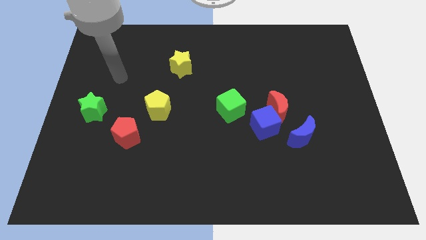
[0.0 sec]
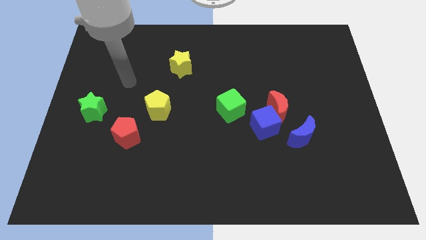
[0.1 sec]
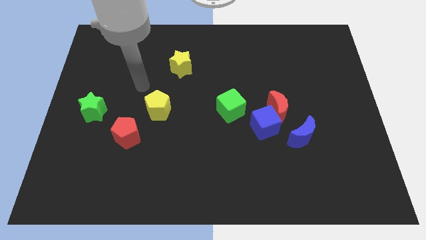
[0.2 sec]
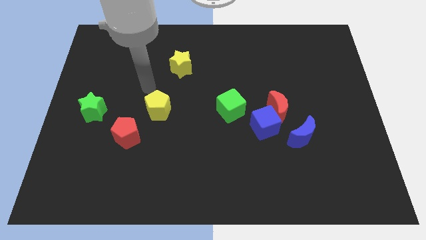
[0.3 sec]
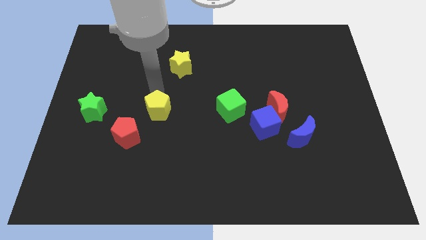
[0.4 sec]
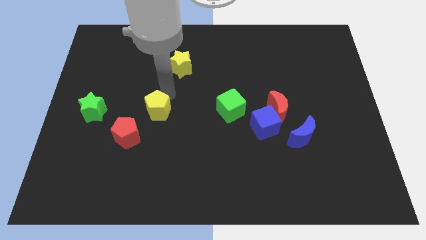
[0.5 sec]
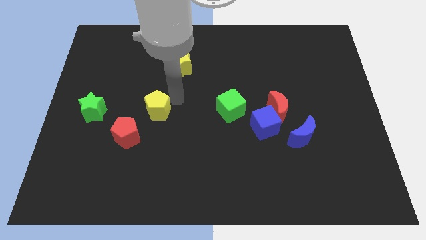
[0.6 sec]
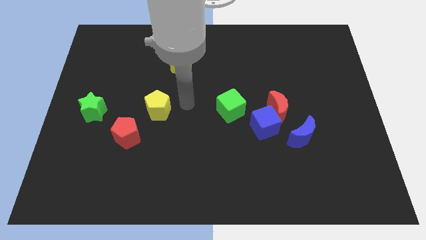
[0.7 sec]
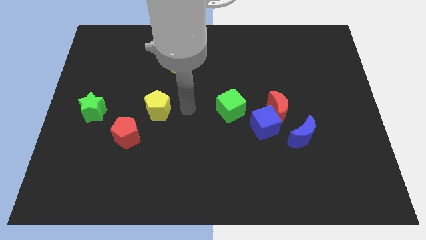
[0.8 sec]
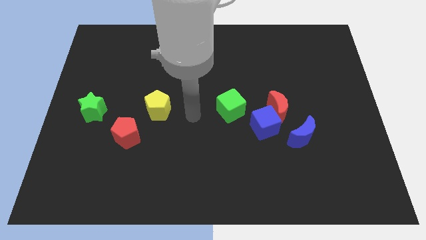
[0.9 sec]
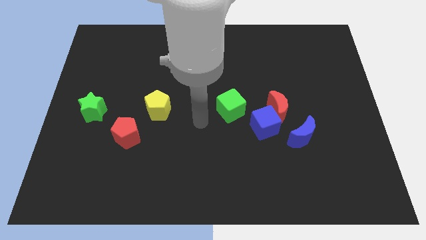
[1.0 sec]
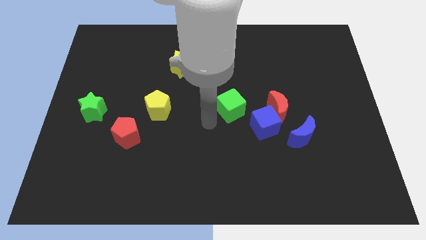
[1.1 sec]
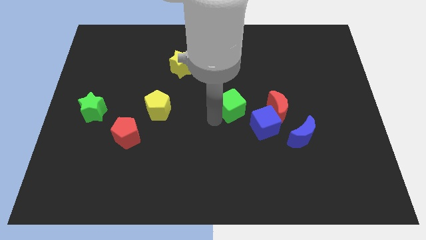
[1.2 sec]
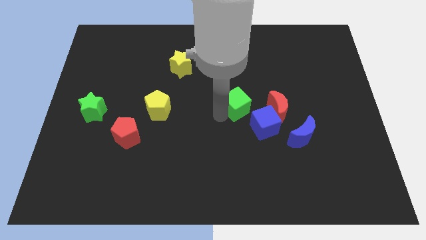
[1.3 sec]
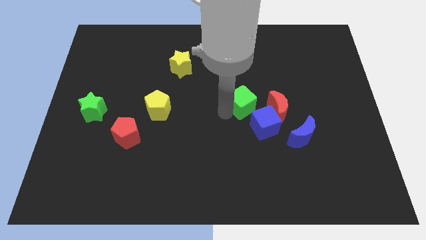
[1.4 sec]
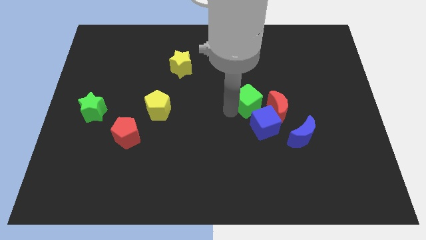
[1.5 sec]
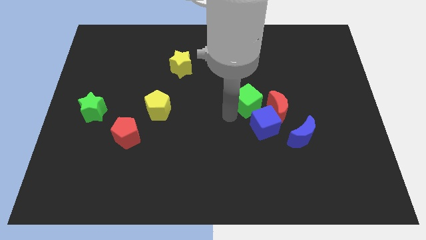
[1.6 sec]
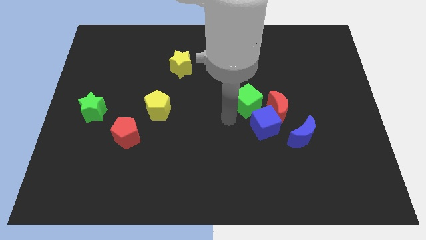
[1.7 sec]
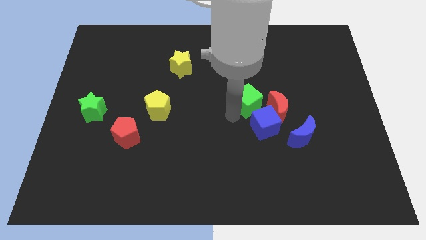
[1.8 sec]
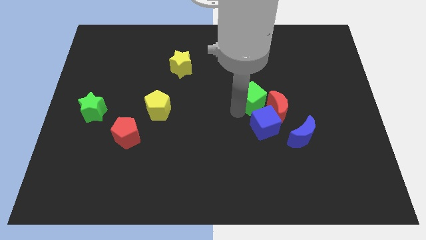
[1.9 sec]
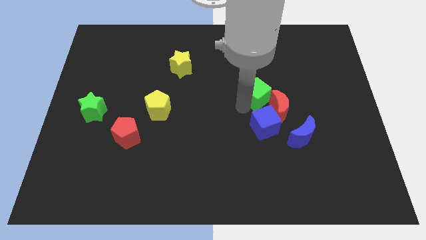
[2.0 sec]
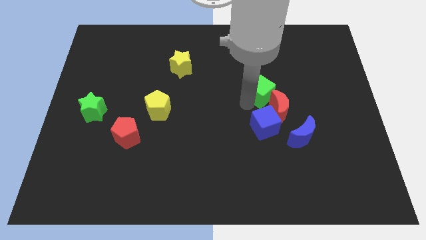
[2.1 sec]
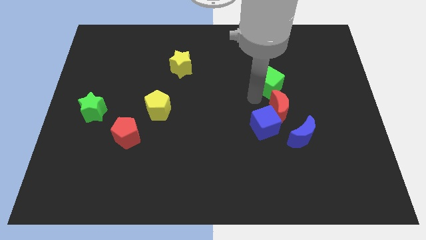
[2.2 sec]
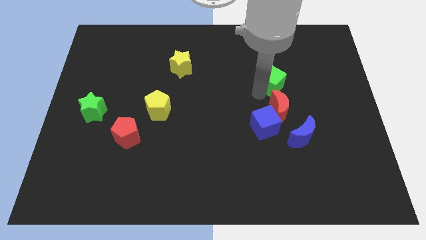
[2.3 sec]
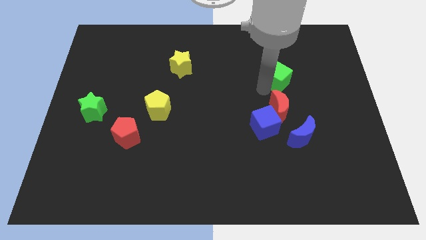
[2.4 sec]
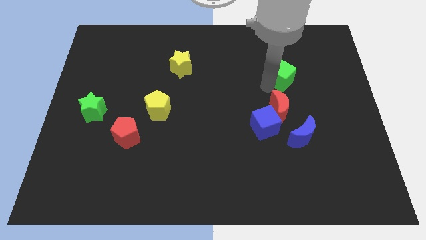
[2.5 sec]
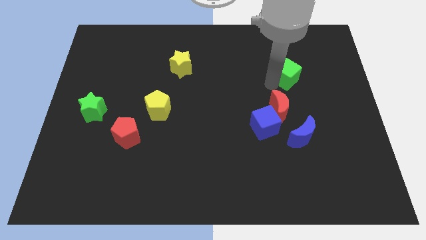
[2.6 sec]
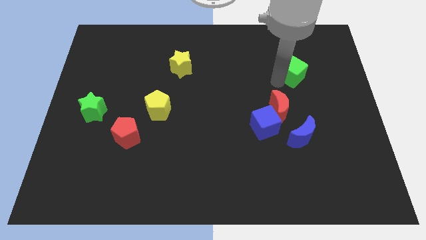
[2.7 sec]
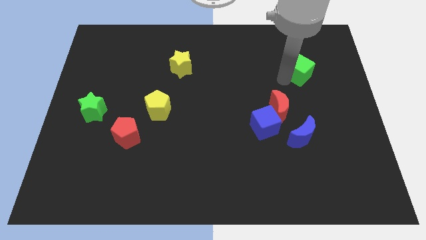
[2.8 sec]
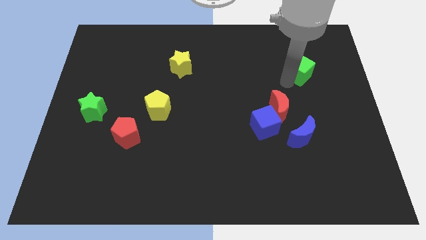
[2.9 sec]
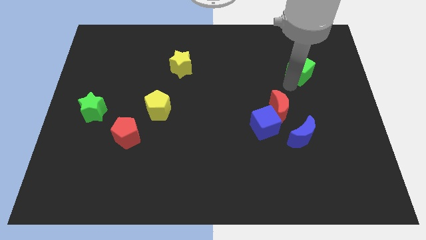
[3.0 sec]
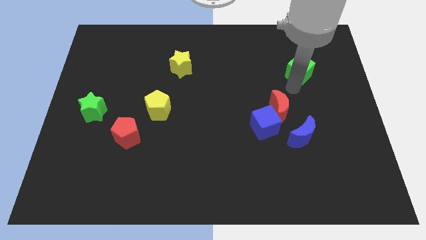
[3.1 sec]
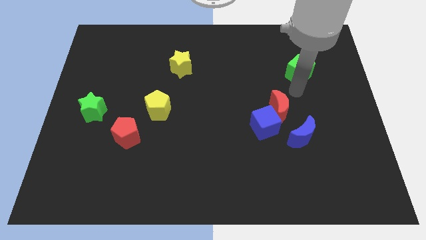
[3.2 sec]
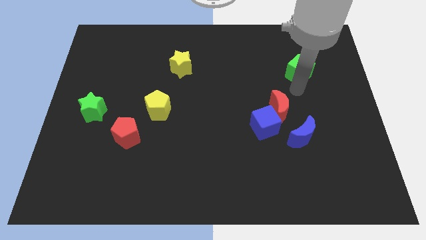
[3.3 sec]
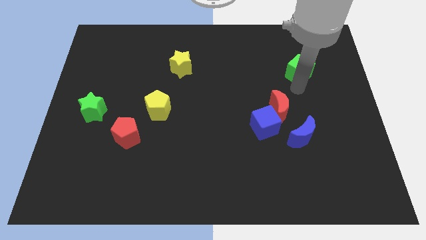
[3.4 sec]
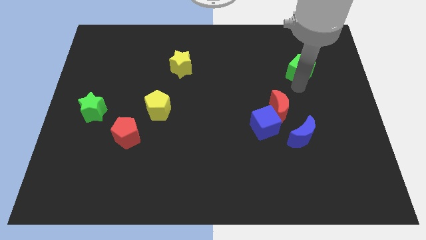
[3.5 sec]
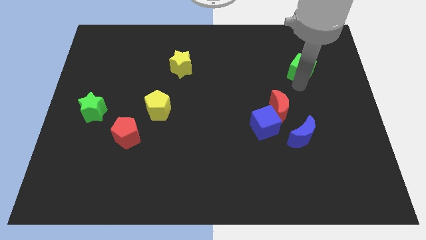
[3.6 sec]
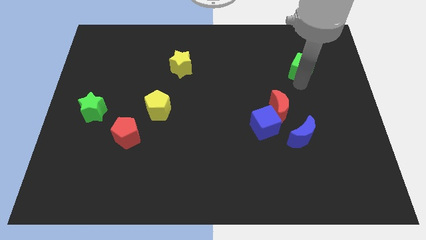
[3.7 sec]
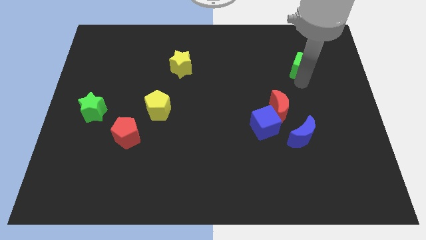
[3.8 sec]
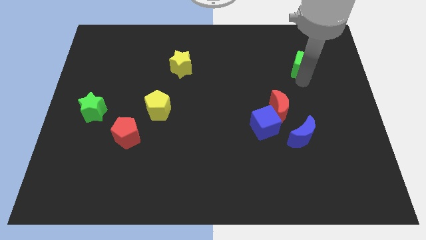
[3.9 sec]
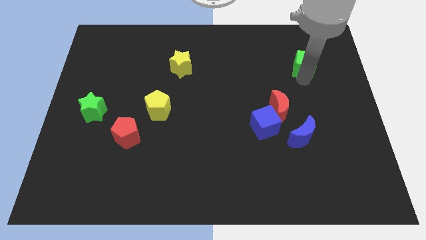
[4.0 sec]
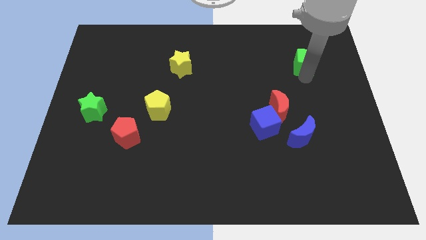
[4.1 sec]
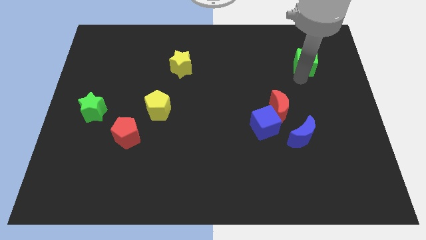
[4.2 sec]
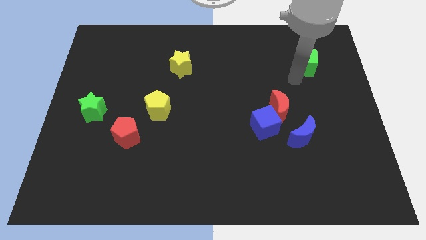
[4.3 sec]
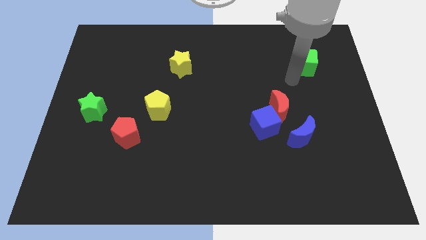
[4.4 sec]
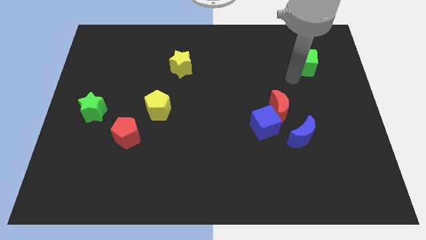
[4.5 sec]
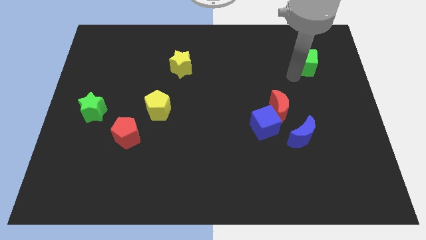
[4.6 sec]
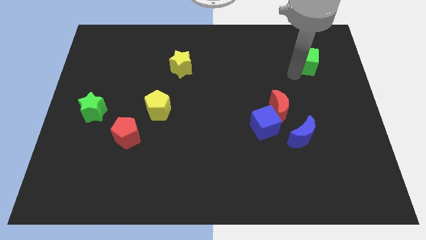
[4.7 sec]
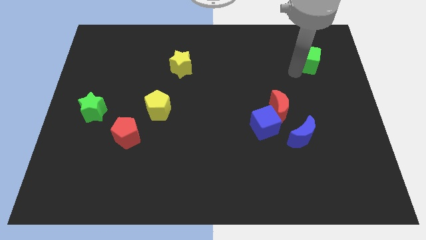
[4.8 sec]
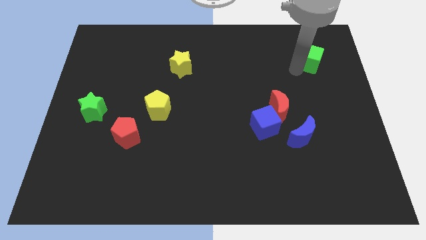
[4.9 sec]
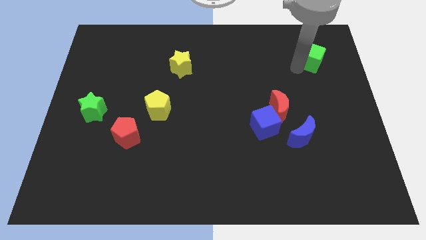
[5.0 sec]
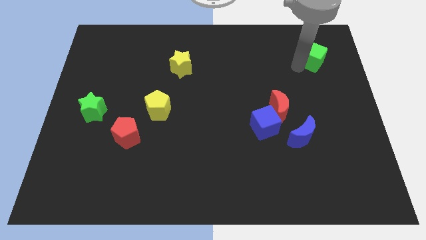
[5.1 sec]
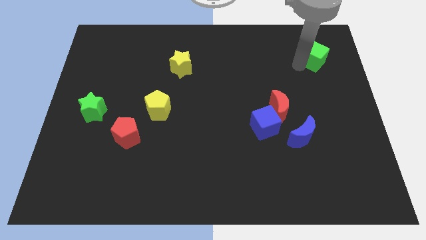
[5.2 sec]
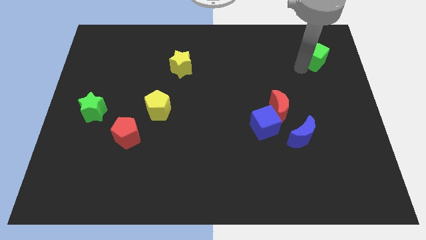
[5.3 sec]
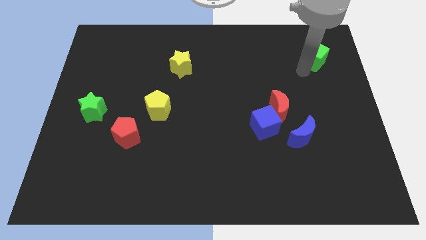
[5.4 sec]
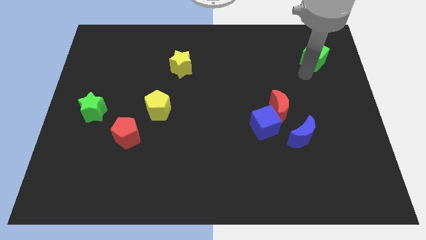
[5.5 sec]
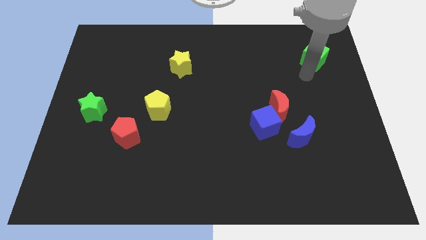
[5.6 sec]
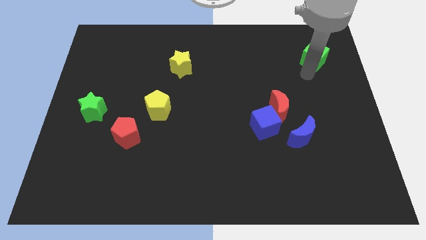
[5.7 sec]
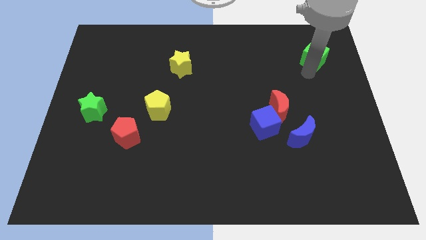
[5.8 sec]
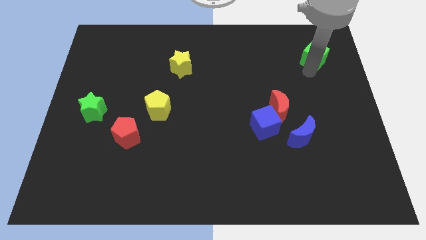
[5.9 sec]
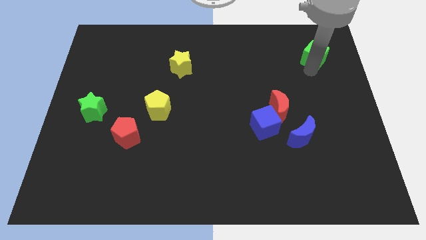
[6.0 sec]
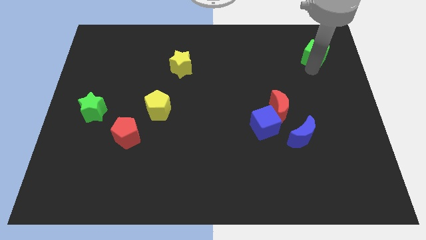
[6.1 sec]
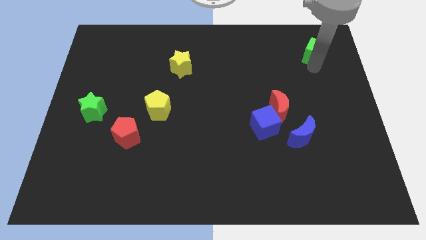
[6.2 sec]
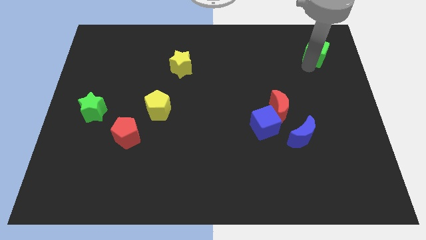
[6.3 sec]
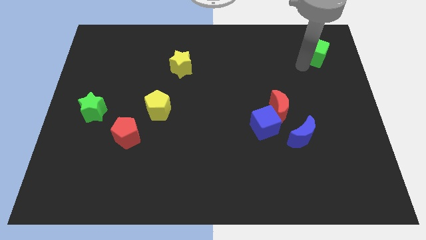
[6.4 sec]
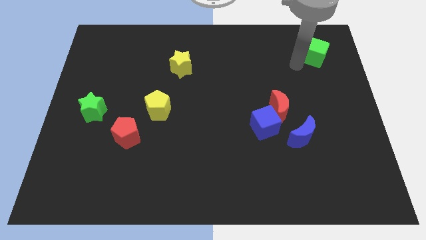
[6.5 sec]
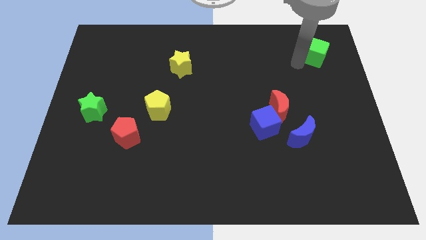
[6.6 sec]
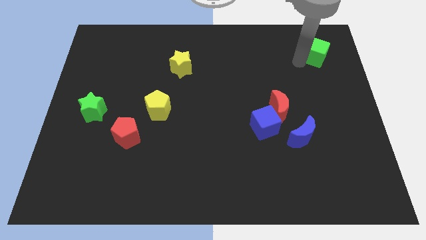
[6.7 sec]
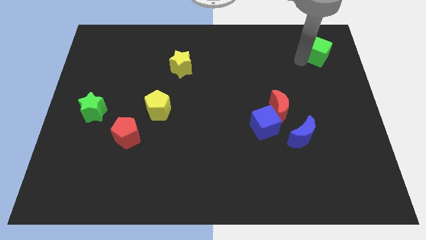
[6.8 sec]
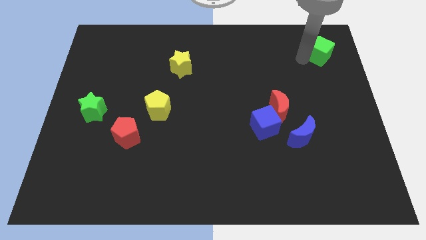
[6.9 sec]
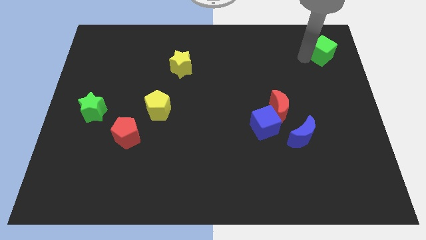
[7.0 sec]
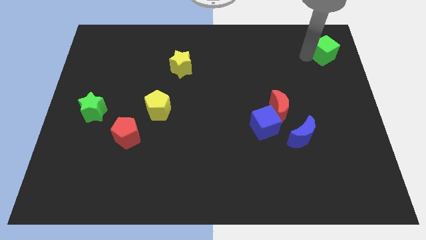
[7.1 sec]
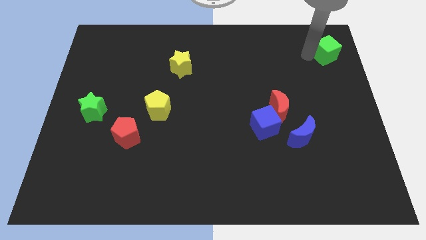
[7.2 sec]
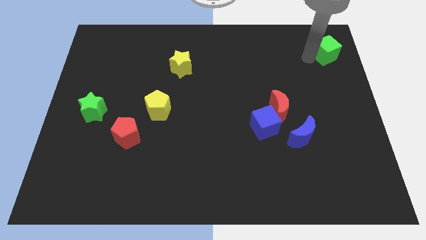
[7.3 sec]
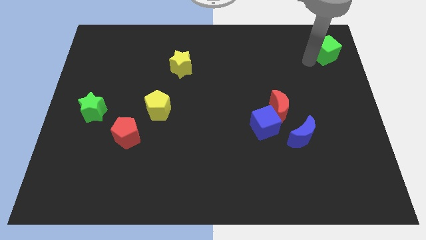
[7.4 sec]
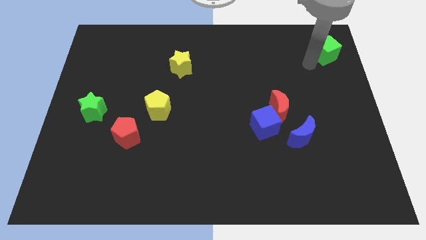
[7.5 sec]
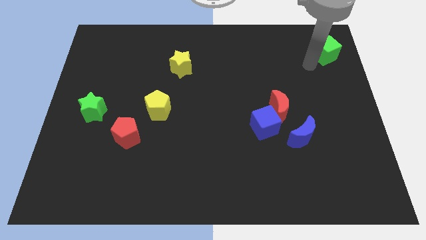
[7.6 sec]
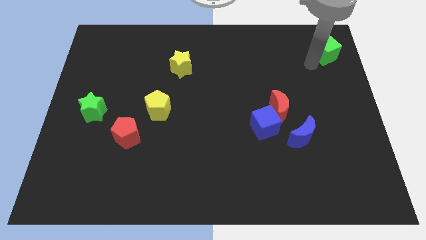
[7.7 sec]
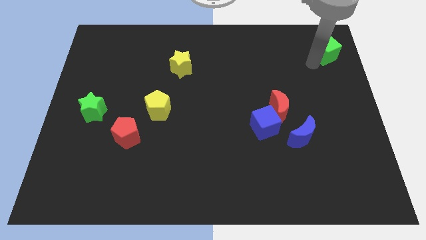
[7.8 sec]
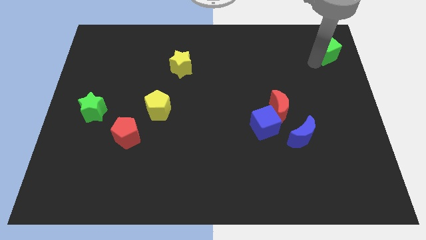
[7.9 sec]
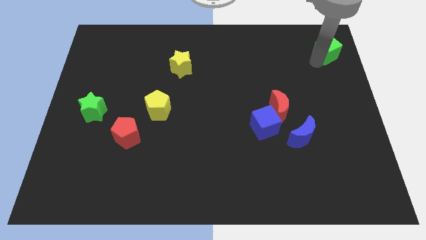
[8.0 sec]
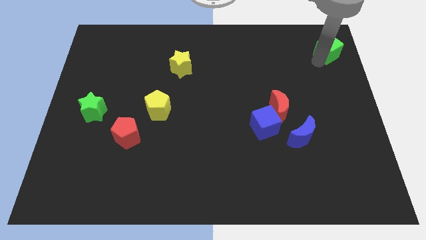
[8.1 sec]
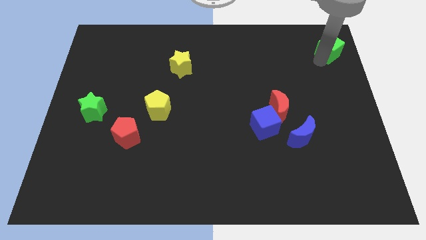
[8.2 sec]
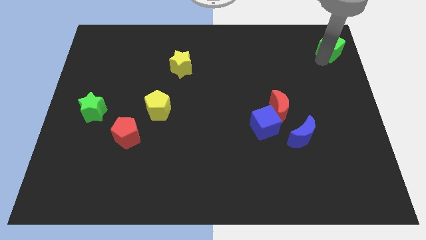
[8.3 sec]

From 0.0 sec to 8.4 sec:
put the green cube to the top right of the board
